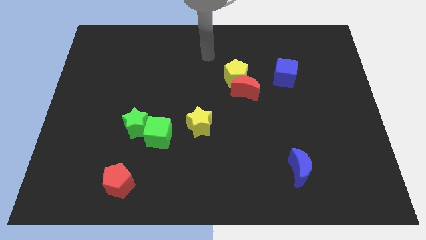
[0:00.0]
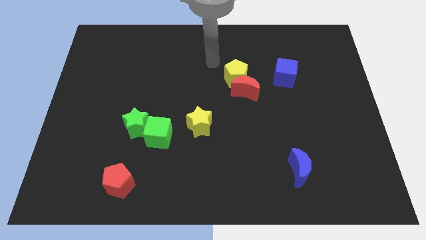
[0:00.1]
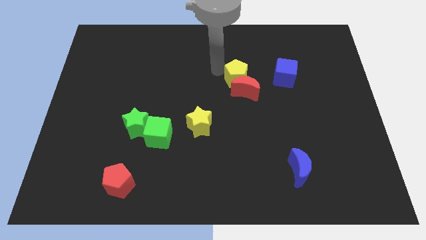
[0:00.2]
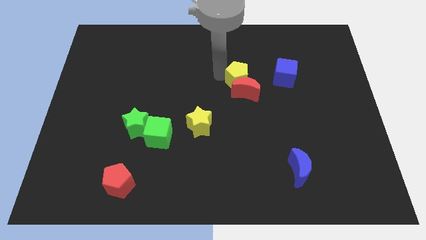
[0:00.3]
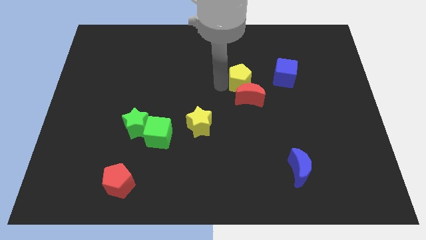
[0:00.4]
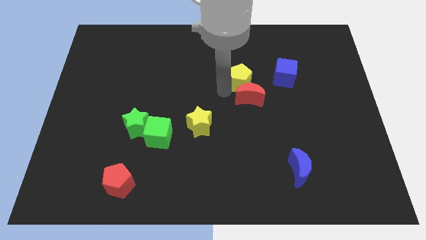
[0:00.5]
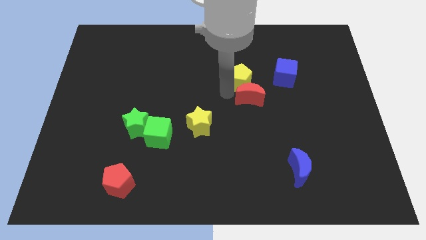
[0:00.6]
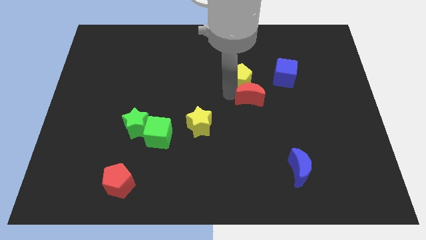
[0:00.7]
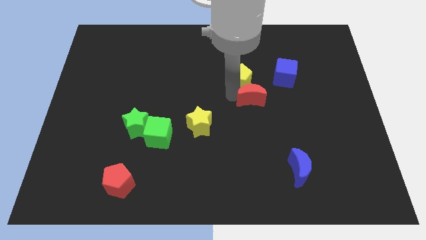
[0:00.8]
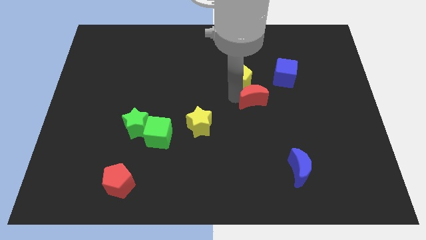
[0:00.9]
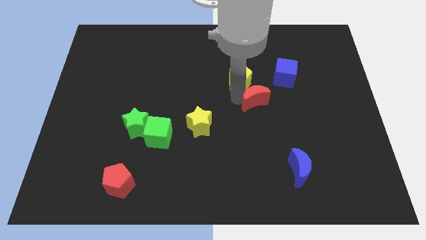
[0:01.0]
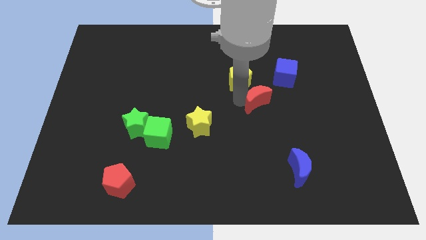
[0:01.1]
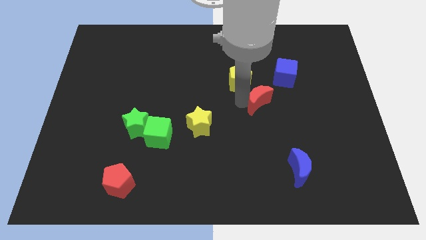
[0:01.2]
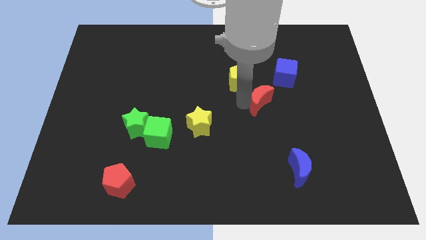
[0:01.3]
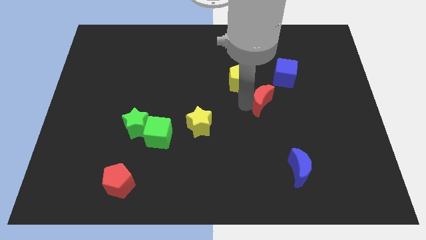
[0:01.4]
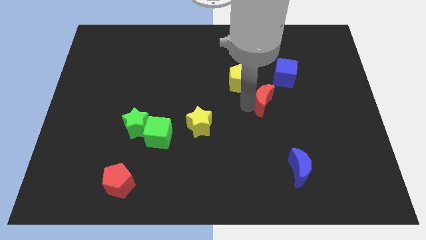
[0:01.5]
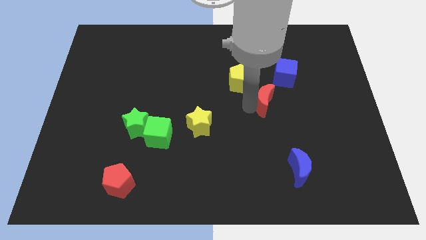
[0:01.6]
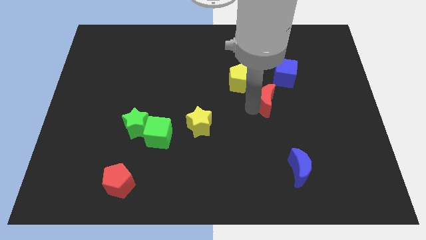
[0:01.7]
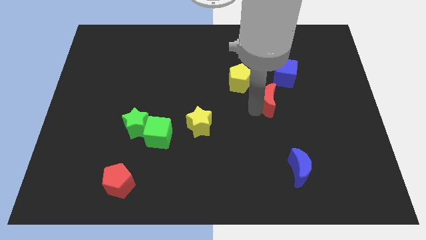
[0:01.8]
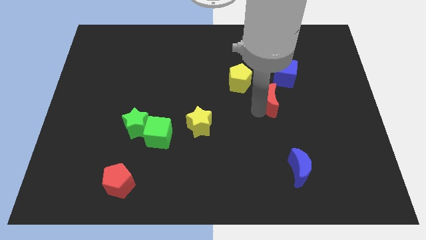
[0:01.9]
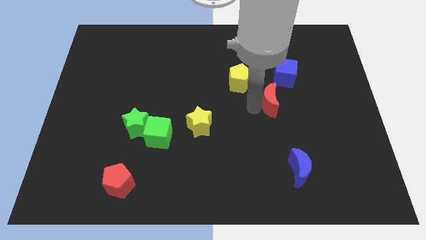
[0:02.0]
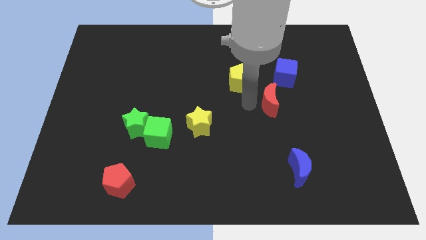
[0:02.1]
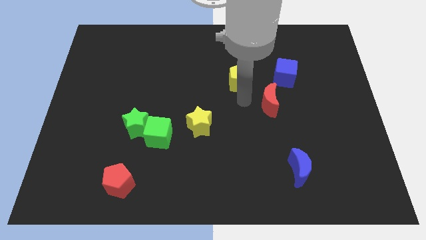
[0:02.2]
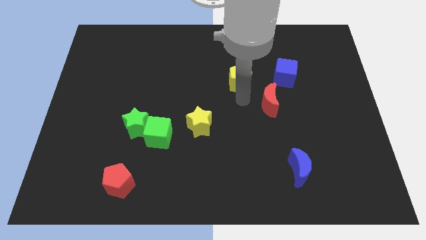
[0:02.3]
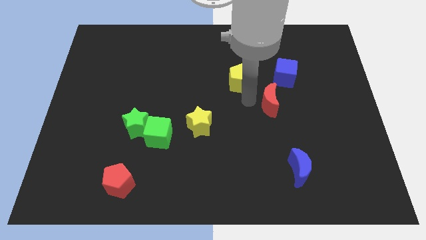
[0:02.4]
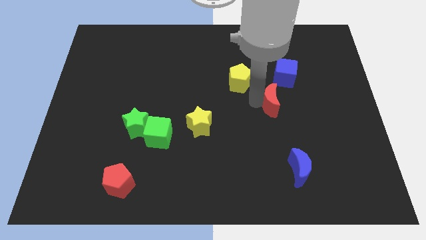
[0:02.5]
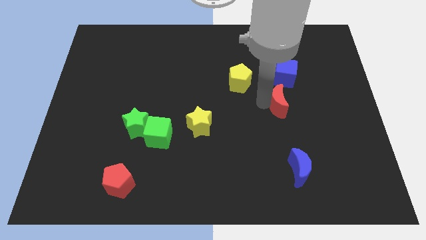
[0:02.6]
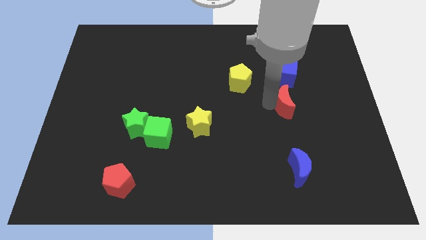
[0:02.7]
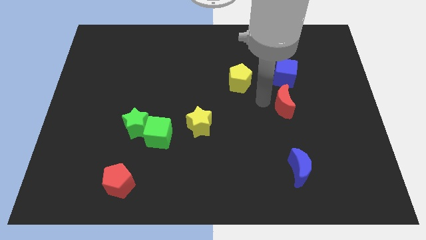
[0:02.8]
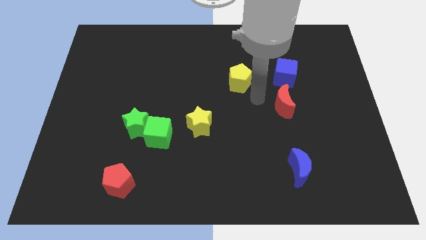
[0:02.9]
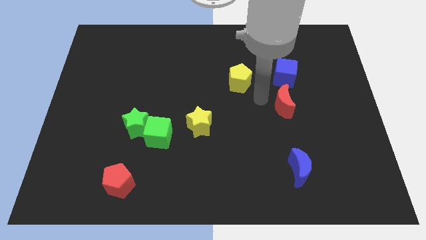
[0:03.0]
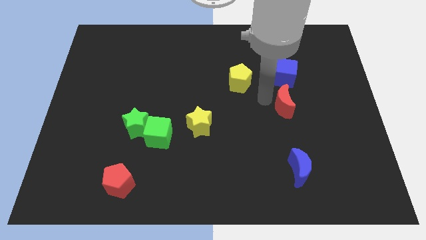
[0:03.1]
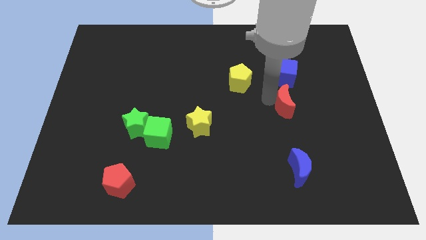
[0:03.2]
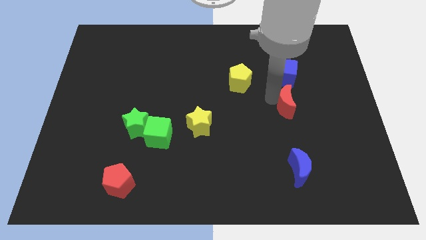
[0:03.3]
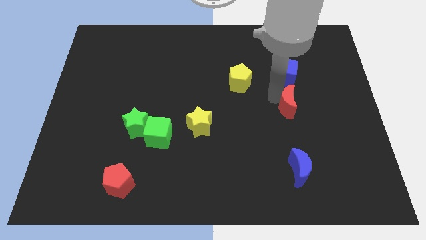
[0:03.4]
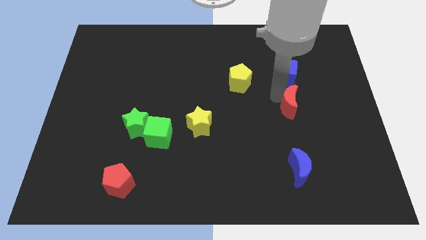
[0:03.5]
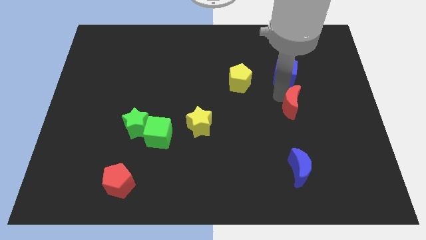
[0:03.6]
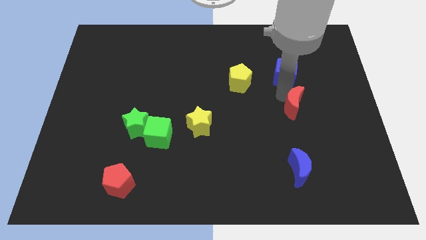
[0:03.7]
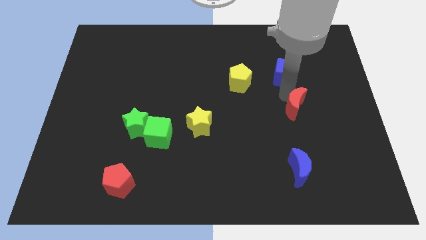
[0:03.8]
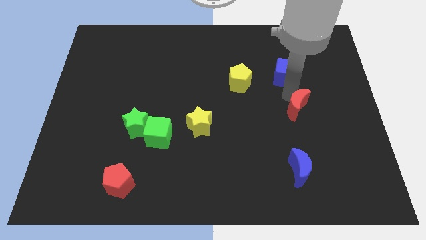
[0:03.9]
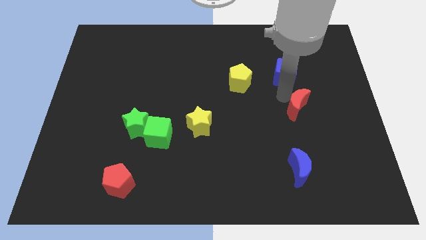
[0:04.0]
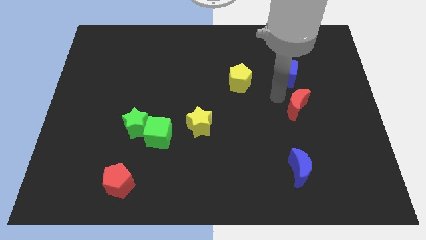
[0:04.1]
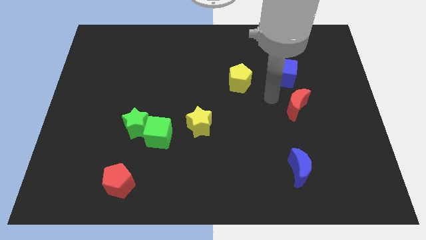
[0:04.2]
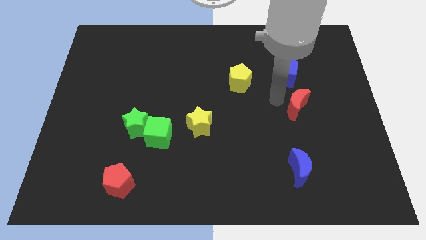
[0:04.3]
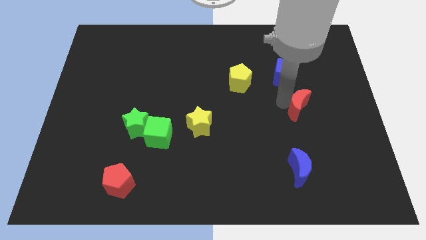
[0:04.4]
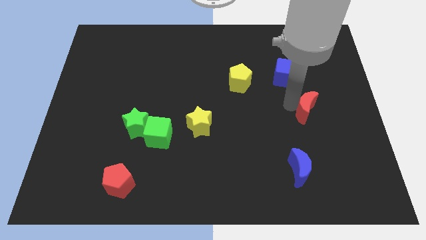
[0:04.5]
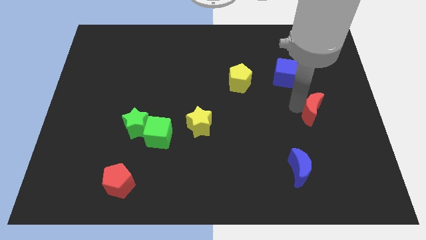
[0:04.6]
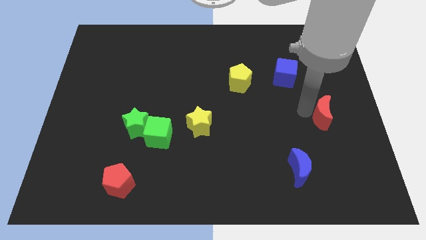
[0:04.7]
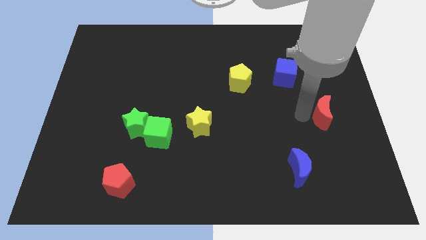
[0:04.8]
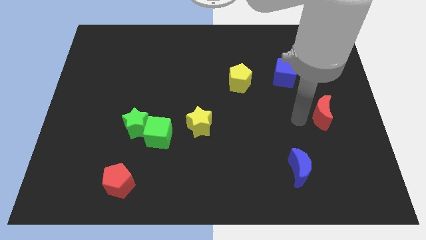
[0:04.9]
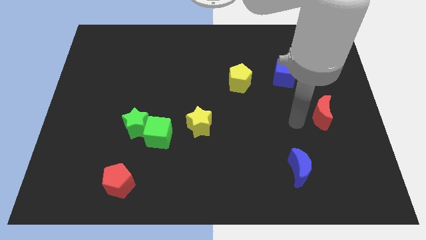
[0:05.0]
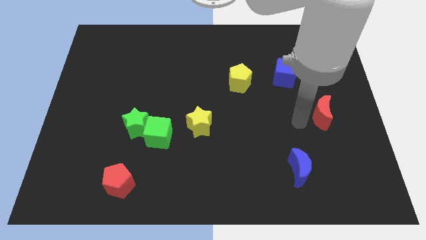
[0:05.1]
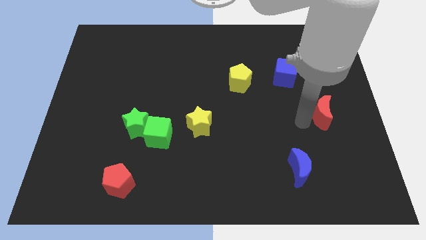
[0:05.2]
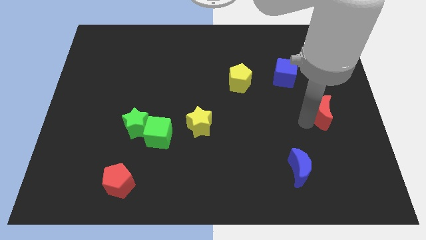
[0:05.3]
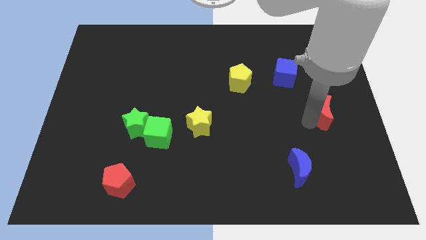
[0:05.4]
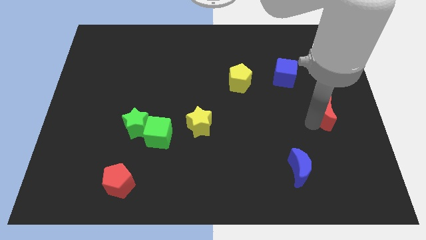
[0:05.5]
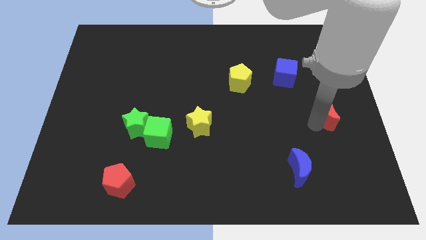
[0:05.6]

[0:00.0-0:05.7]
put the red moon to the right side

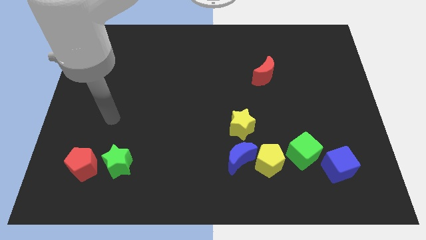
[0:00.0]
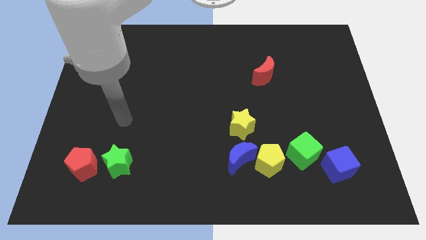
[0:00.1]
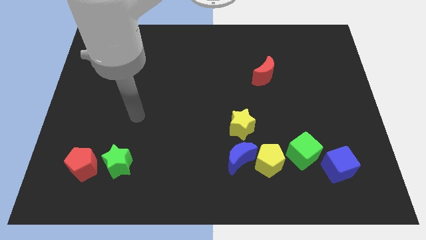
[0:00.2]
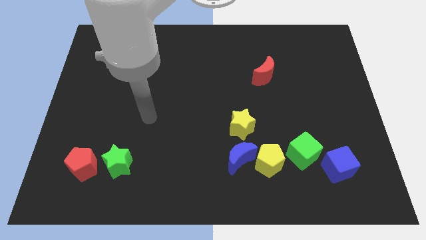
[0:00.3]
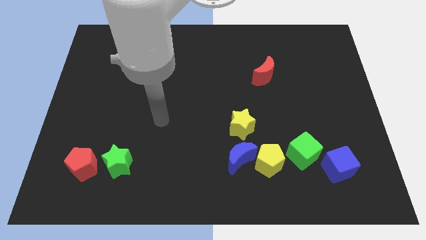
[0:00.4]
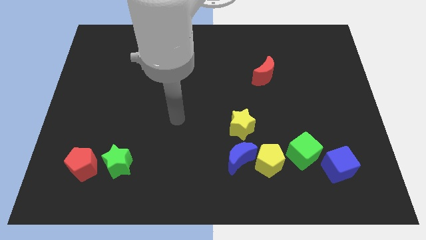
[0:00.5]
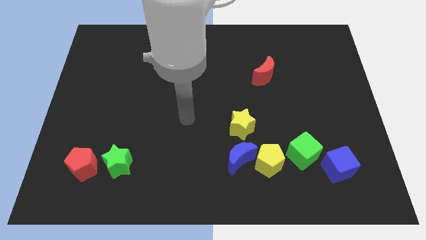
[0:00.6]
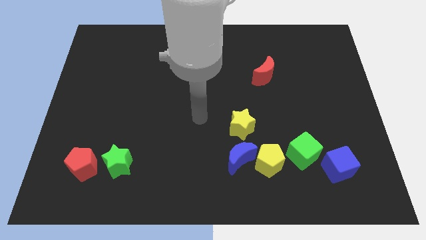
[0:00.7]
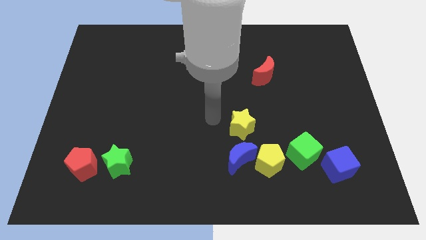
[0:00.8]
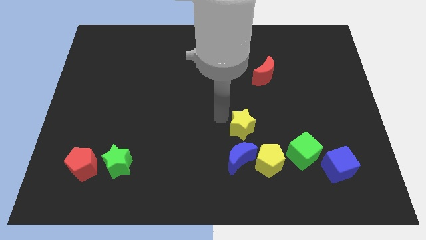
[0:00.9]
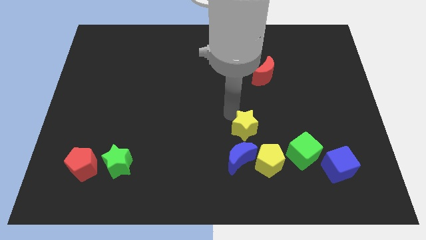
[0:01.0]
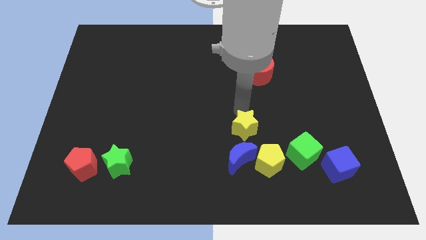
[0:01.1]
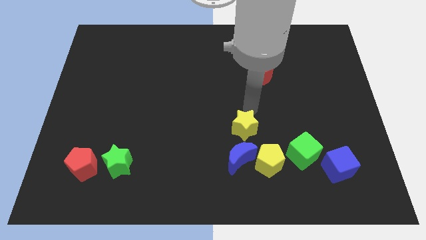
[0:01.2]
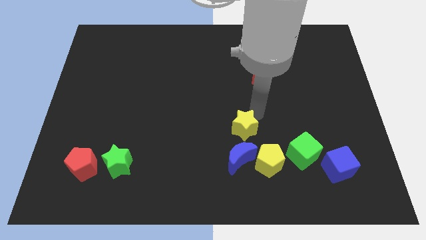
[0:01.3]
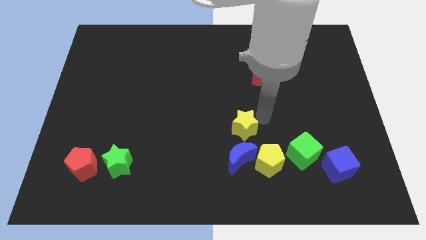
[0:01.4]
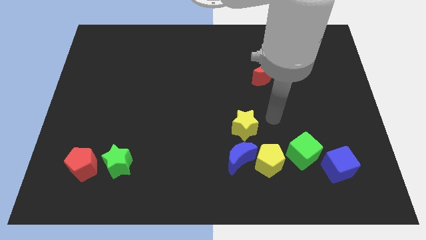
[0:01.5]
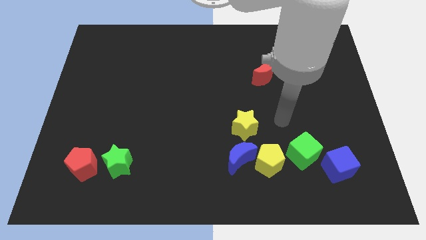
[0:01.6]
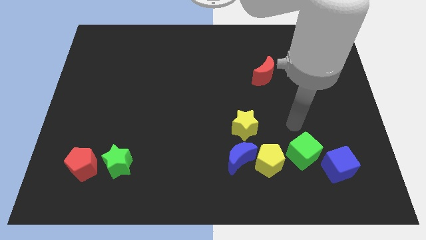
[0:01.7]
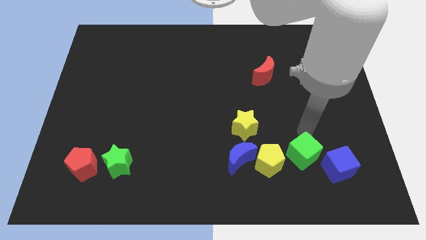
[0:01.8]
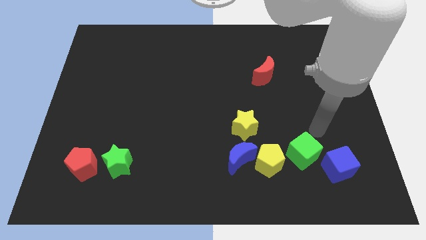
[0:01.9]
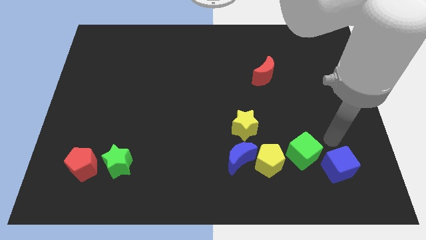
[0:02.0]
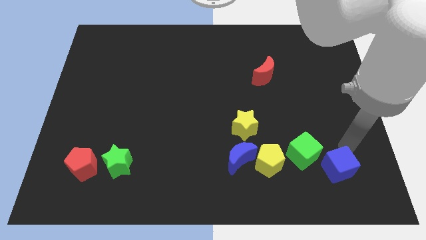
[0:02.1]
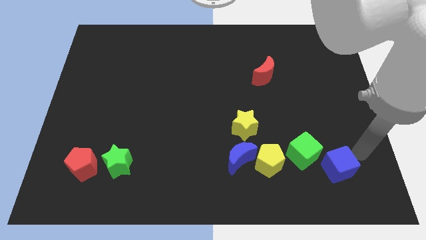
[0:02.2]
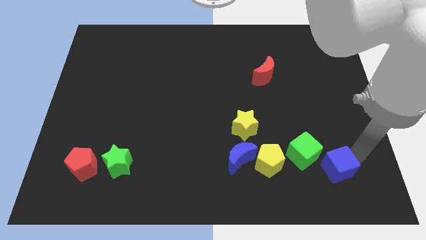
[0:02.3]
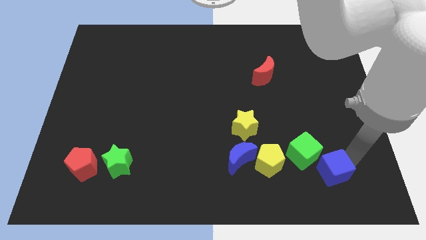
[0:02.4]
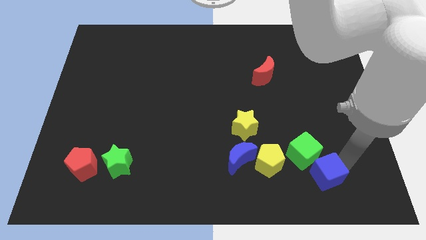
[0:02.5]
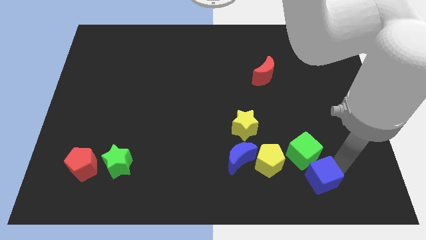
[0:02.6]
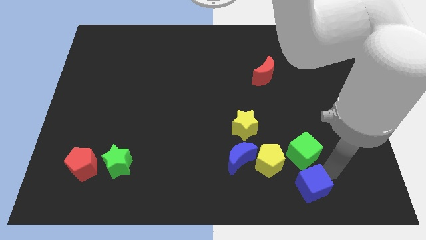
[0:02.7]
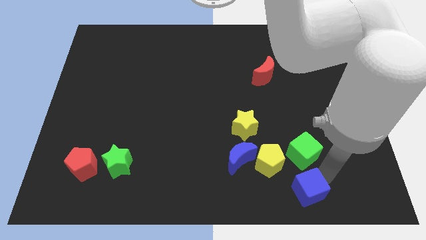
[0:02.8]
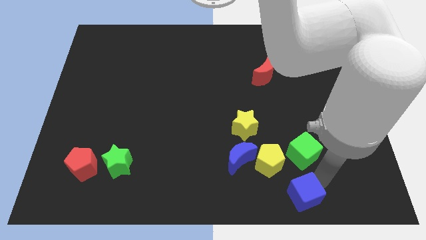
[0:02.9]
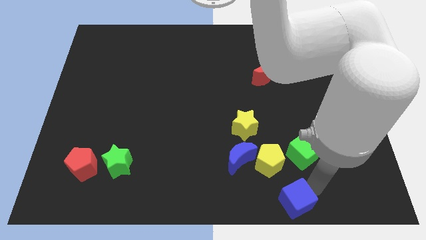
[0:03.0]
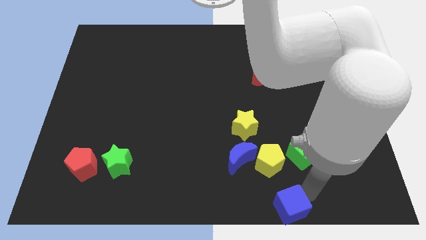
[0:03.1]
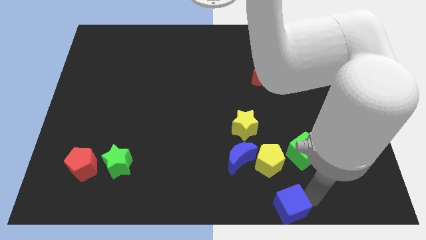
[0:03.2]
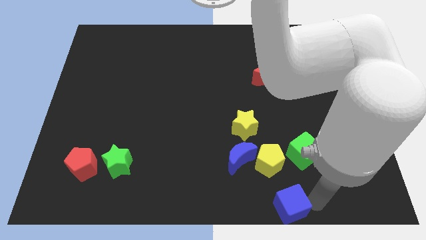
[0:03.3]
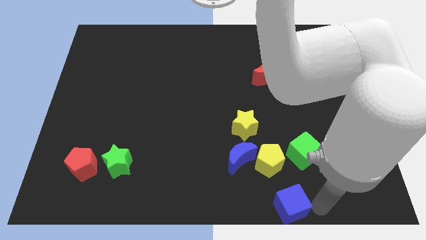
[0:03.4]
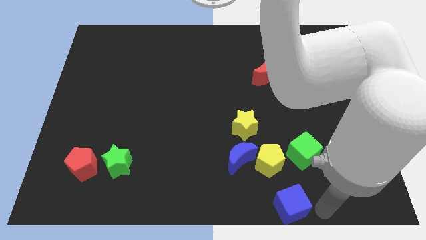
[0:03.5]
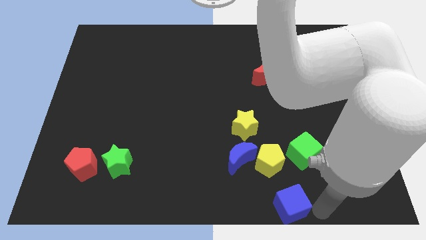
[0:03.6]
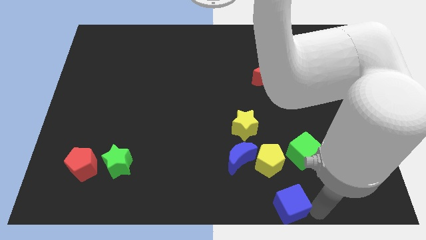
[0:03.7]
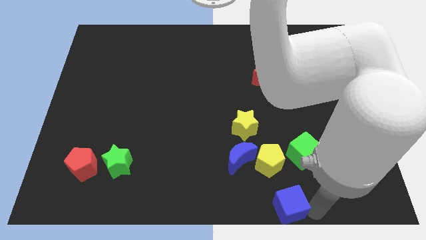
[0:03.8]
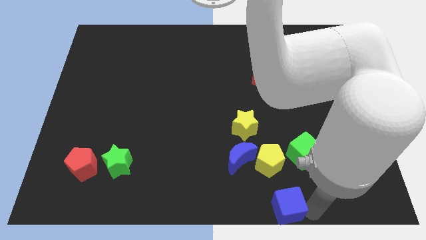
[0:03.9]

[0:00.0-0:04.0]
put the blue cube to the bottom
